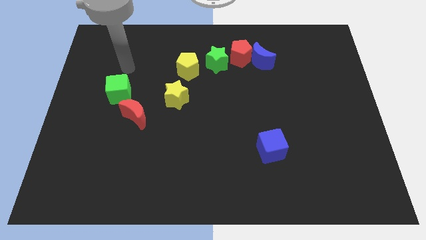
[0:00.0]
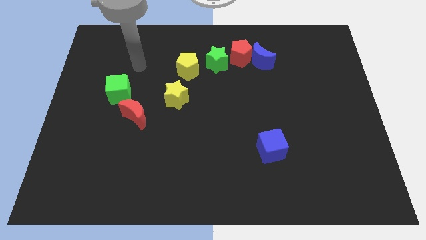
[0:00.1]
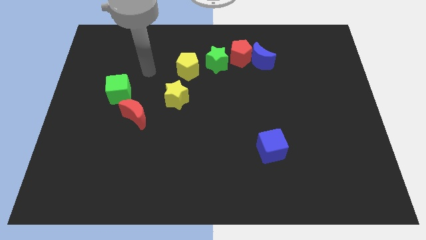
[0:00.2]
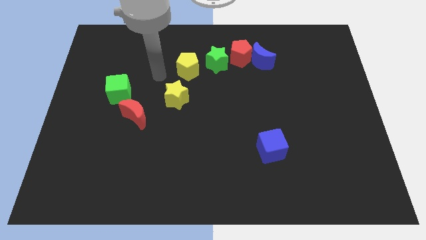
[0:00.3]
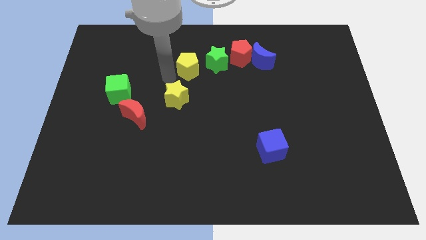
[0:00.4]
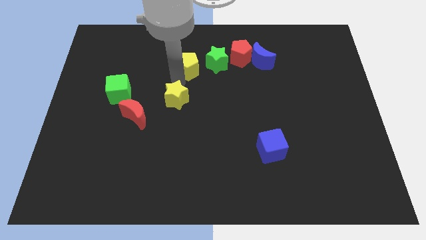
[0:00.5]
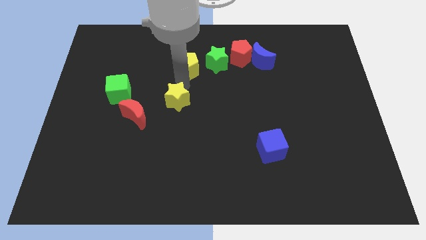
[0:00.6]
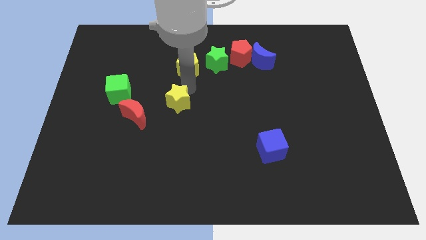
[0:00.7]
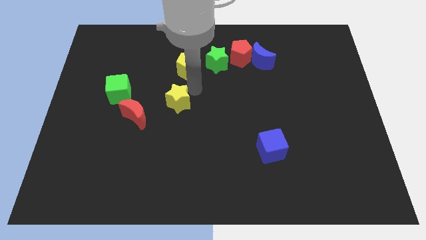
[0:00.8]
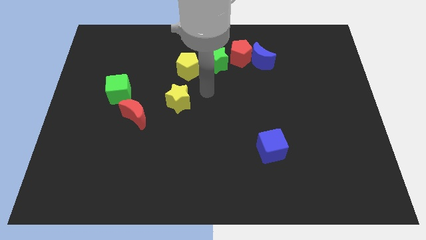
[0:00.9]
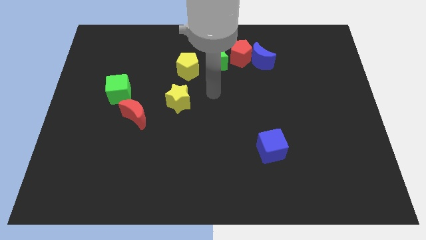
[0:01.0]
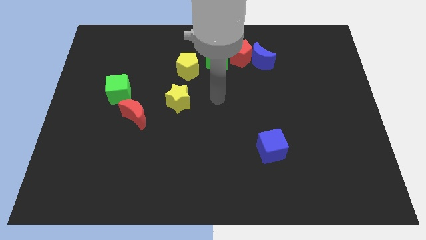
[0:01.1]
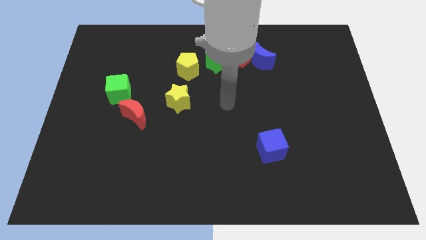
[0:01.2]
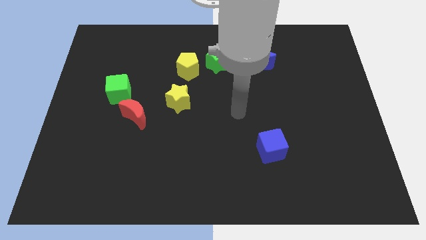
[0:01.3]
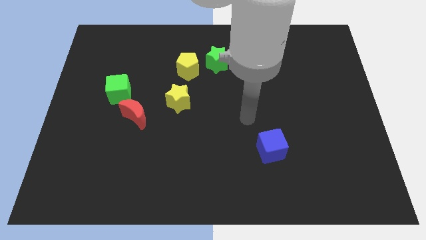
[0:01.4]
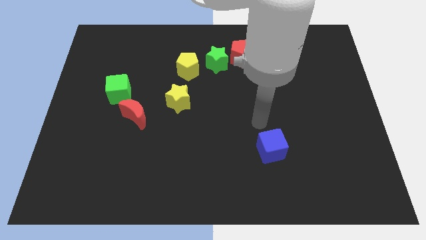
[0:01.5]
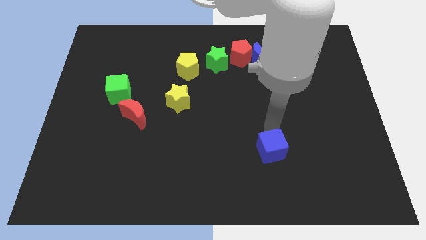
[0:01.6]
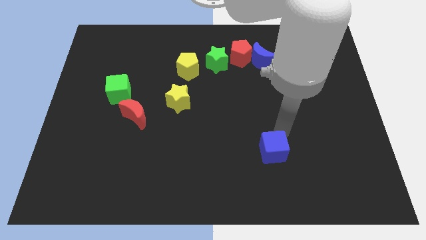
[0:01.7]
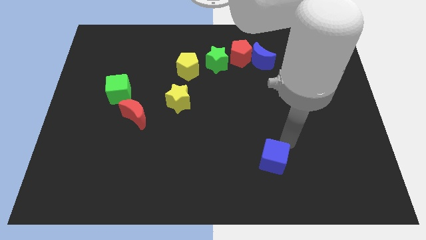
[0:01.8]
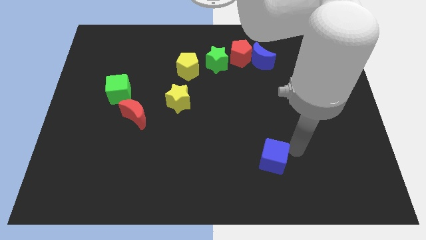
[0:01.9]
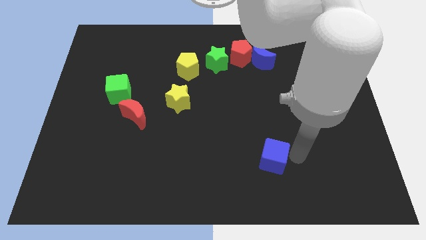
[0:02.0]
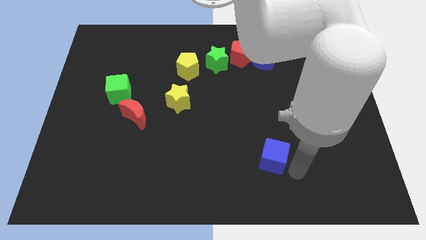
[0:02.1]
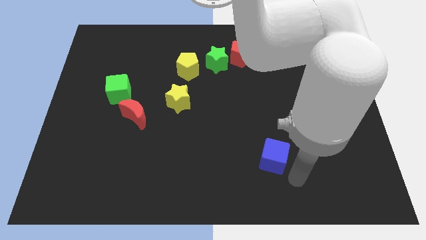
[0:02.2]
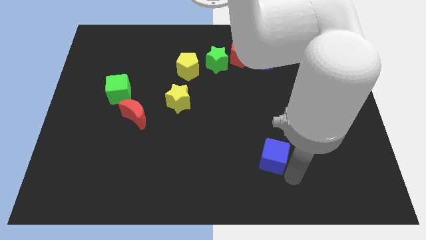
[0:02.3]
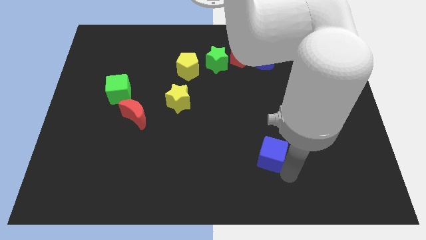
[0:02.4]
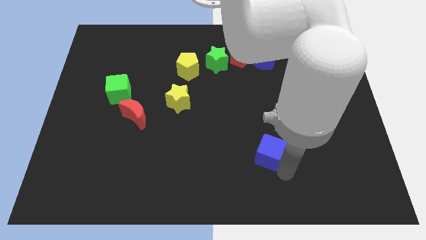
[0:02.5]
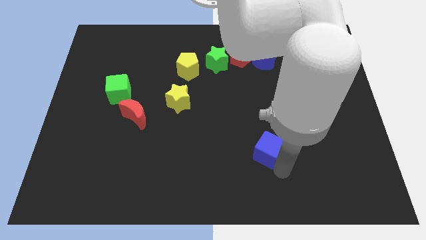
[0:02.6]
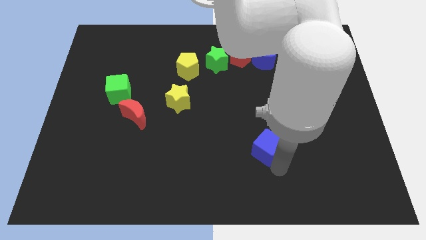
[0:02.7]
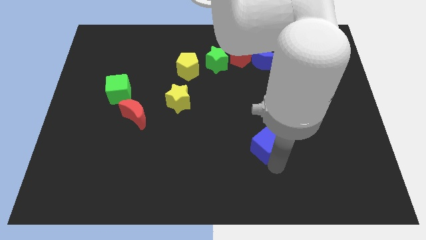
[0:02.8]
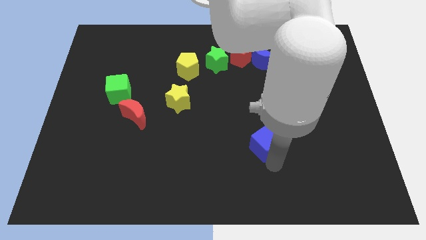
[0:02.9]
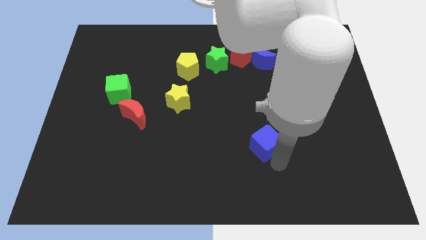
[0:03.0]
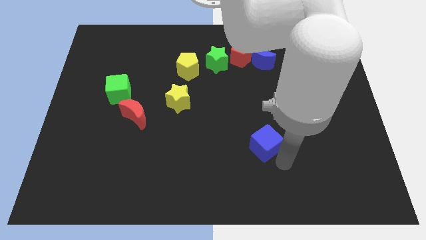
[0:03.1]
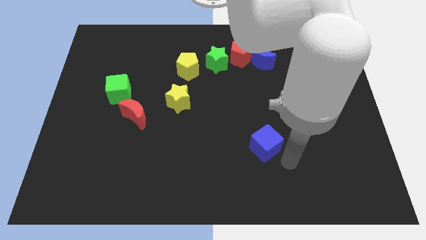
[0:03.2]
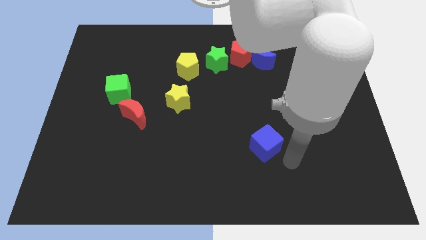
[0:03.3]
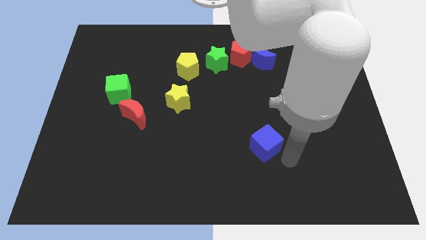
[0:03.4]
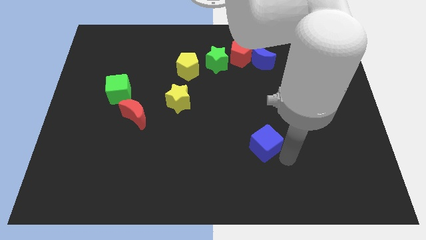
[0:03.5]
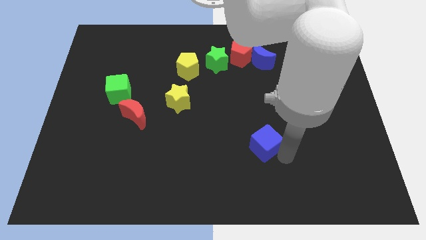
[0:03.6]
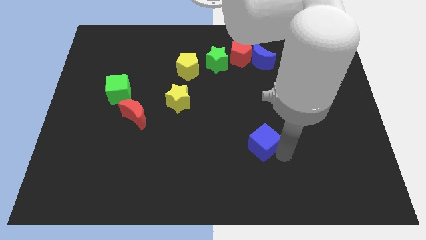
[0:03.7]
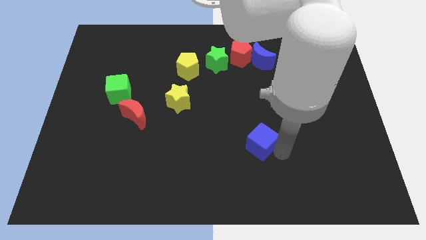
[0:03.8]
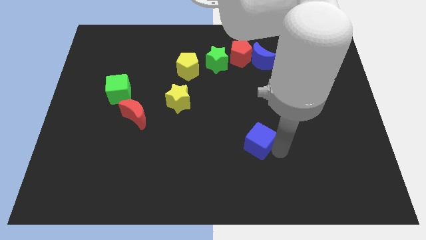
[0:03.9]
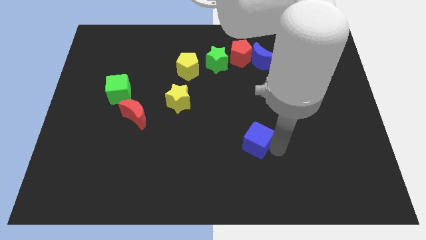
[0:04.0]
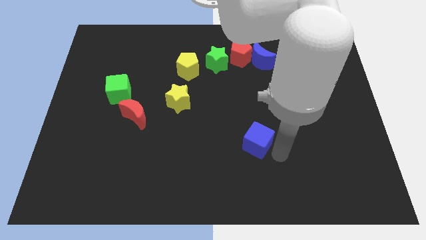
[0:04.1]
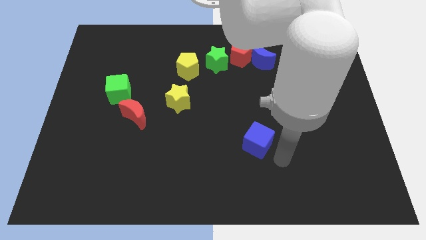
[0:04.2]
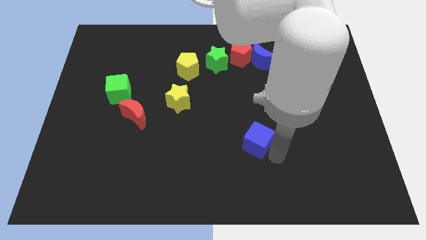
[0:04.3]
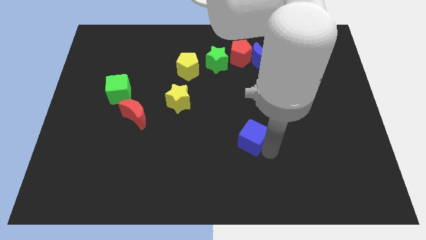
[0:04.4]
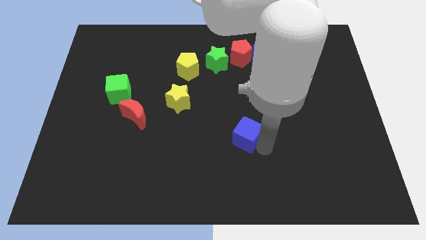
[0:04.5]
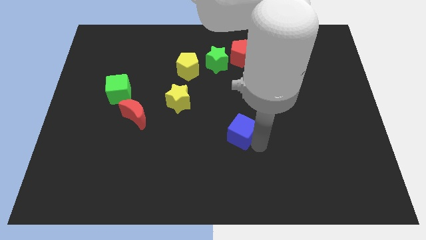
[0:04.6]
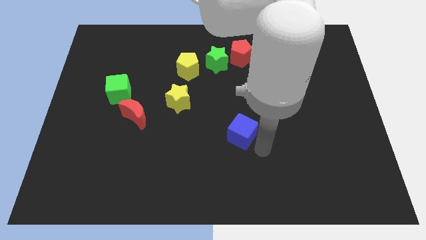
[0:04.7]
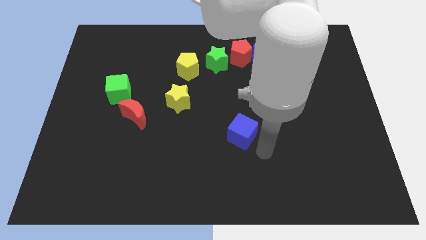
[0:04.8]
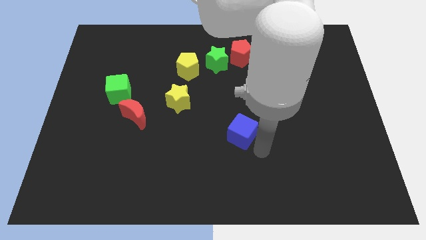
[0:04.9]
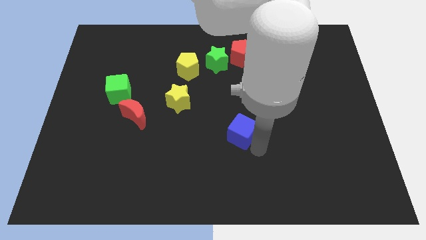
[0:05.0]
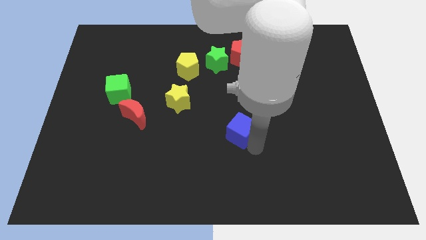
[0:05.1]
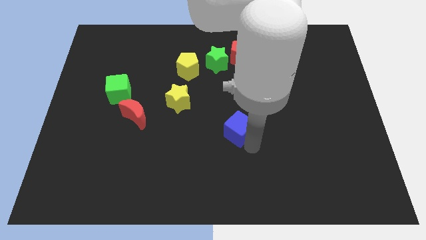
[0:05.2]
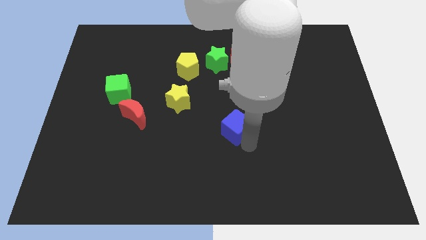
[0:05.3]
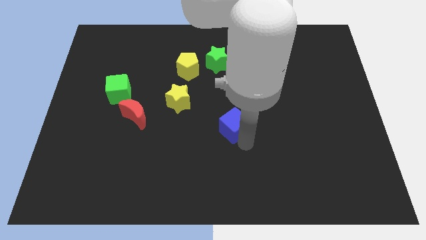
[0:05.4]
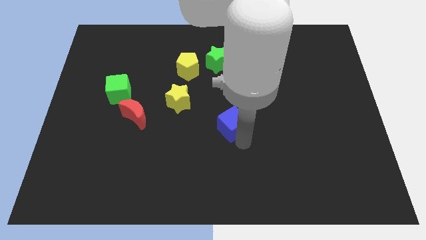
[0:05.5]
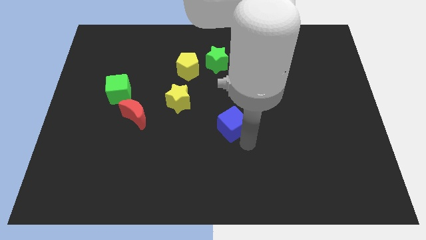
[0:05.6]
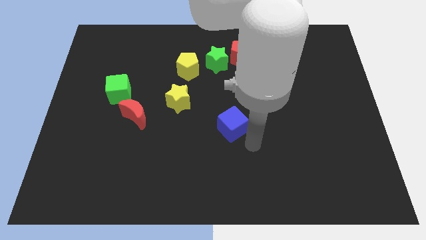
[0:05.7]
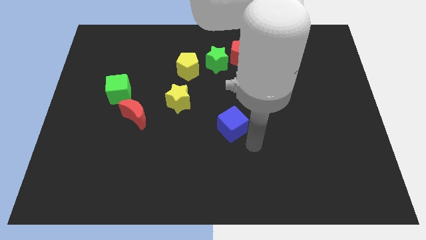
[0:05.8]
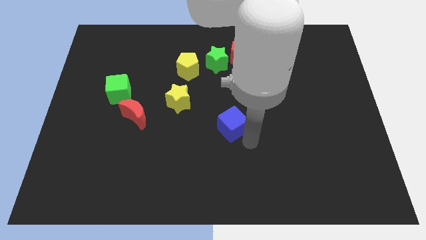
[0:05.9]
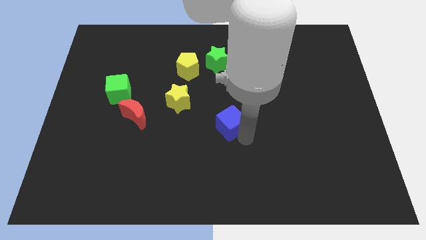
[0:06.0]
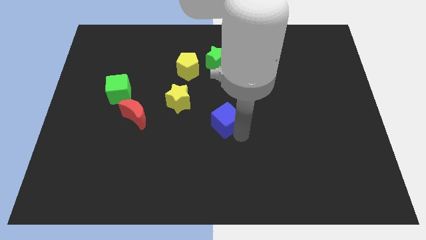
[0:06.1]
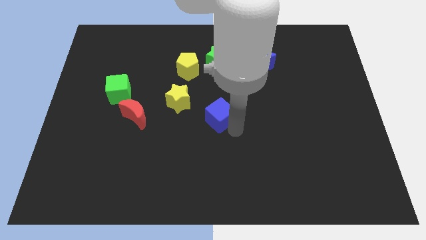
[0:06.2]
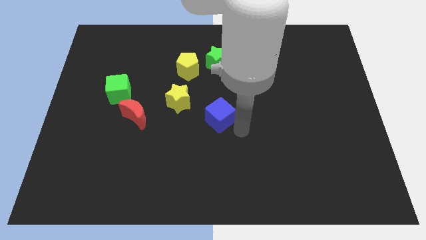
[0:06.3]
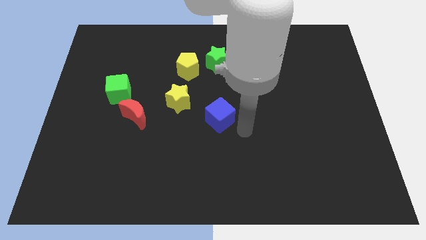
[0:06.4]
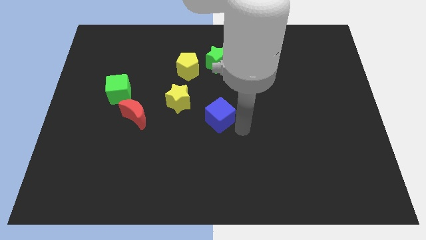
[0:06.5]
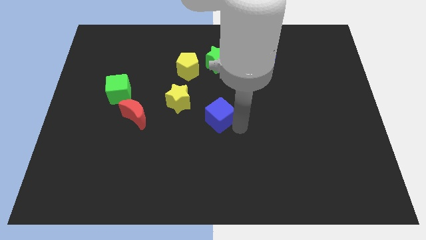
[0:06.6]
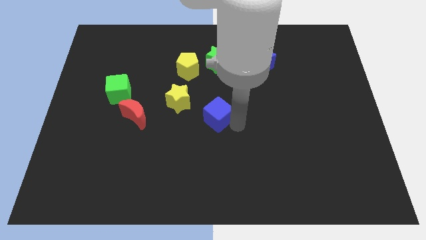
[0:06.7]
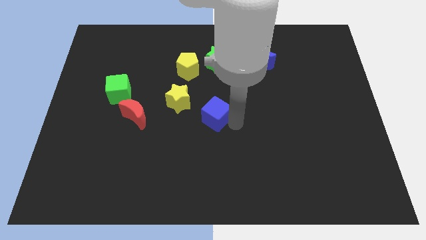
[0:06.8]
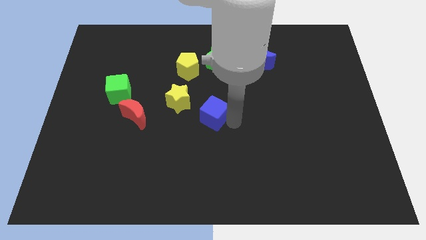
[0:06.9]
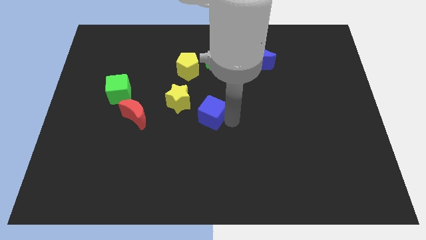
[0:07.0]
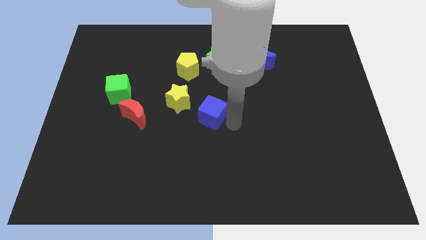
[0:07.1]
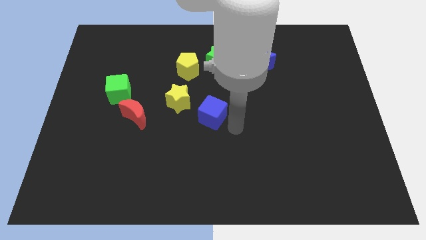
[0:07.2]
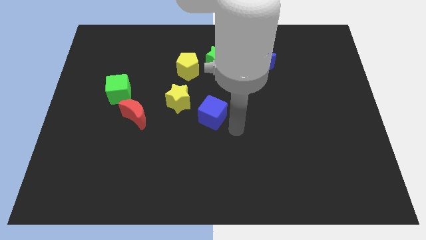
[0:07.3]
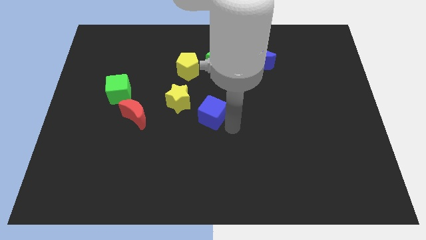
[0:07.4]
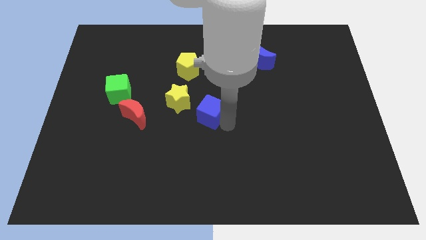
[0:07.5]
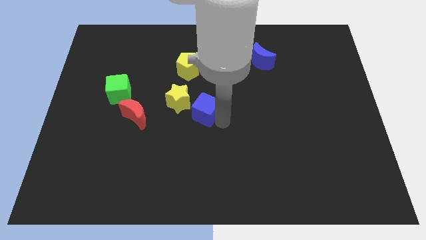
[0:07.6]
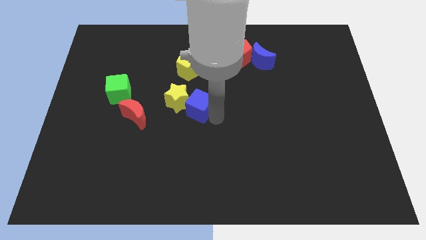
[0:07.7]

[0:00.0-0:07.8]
put the blue cube next to the yellow star
